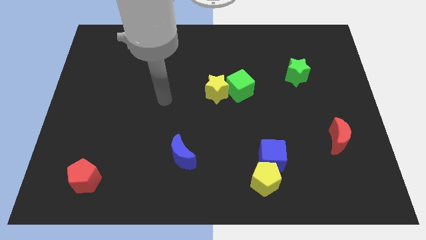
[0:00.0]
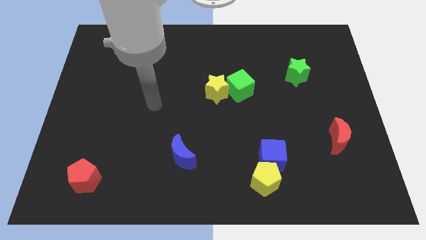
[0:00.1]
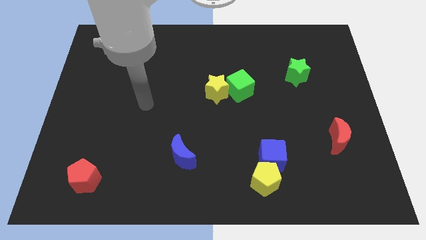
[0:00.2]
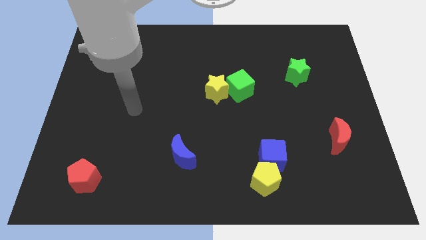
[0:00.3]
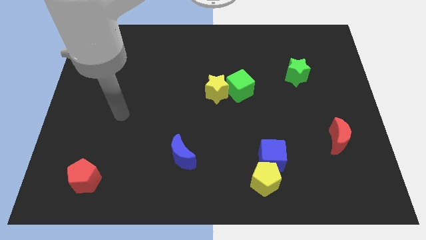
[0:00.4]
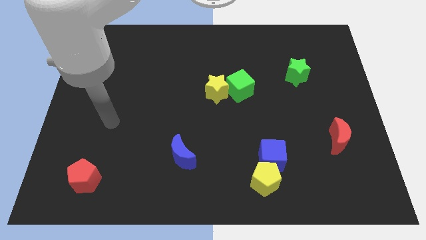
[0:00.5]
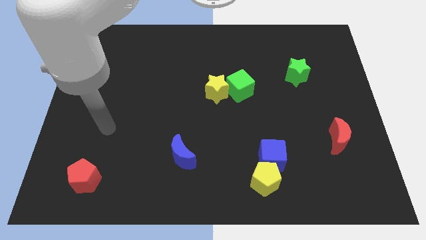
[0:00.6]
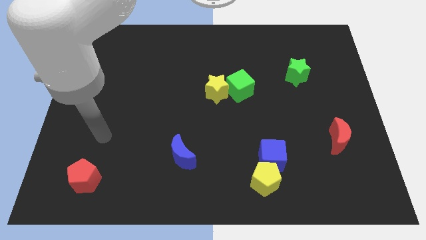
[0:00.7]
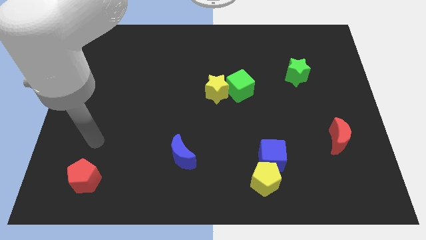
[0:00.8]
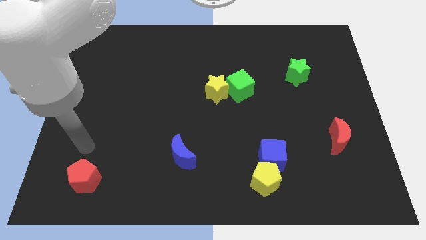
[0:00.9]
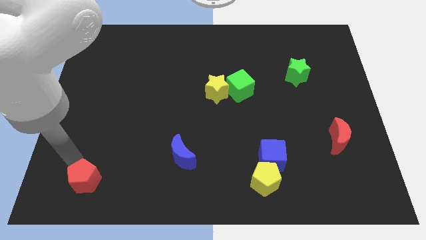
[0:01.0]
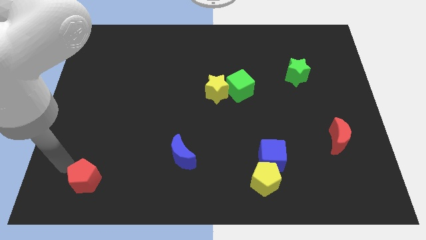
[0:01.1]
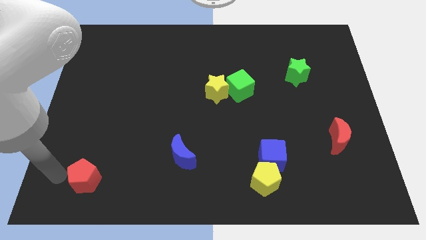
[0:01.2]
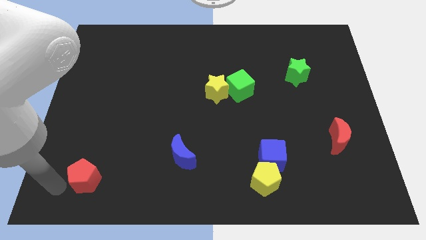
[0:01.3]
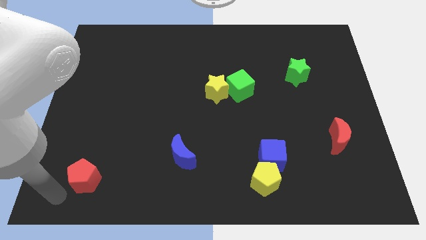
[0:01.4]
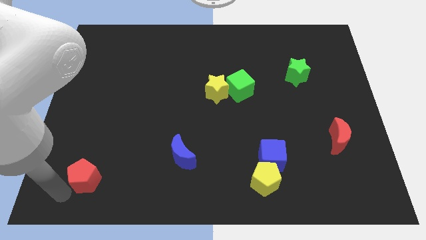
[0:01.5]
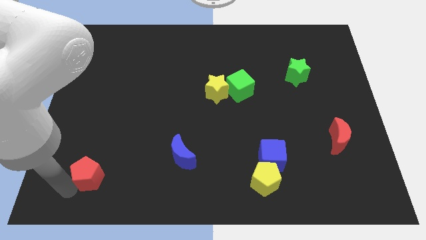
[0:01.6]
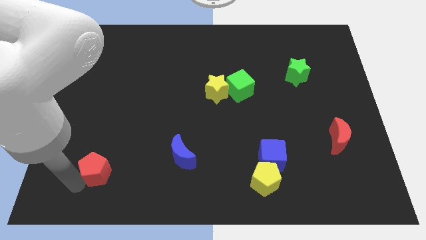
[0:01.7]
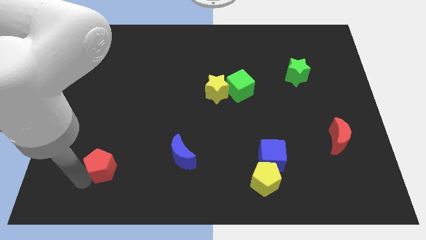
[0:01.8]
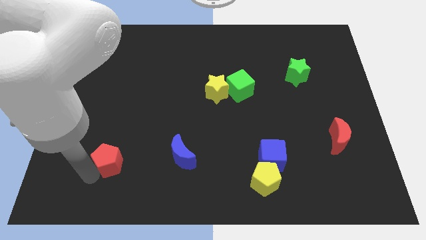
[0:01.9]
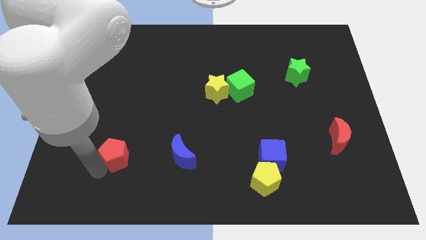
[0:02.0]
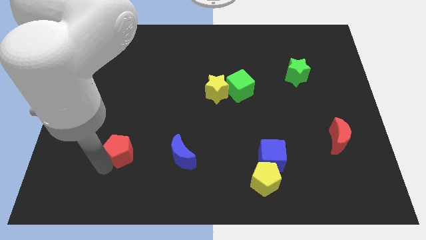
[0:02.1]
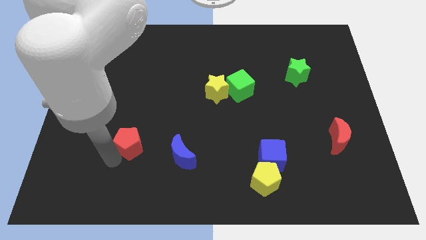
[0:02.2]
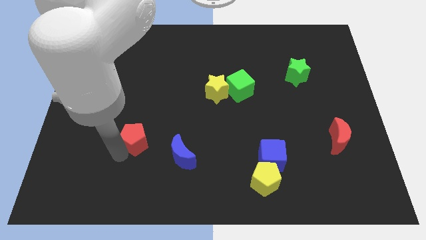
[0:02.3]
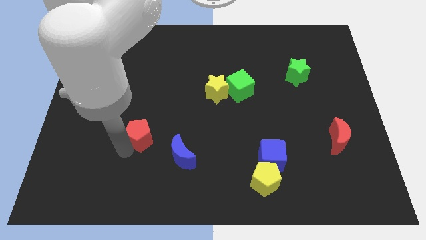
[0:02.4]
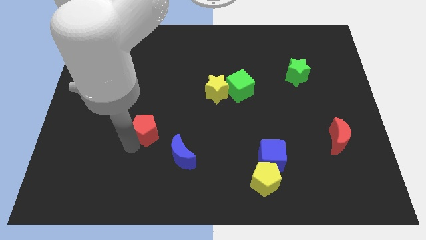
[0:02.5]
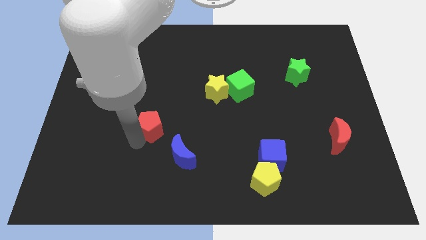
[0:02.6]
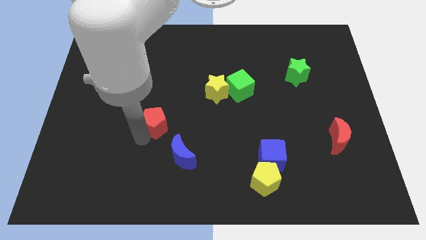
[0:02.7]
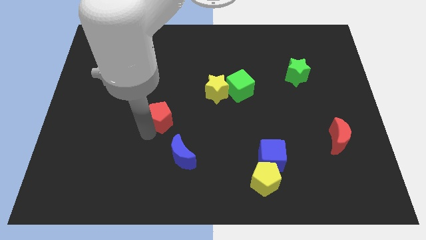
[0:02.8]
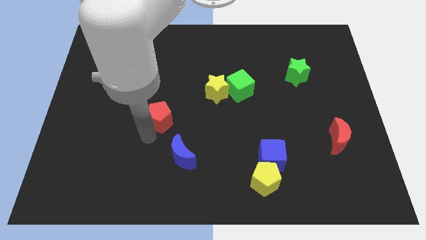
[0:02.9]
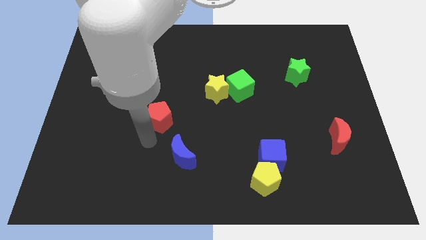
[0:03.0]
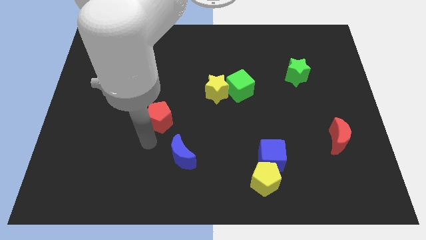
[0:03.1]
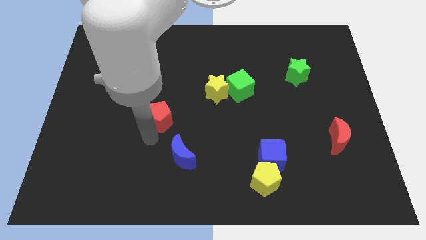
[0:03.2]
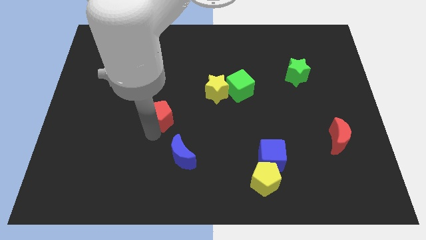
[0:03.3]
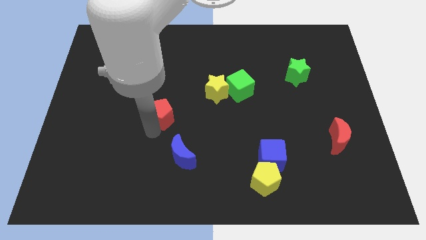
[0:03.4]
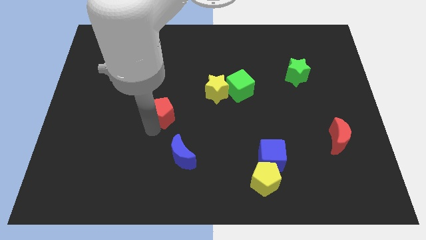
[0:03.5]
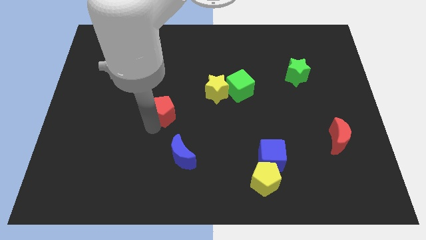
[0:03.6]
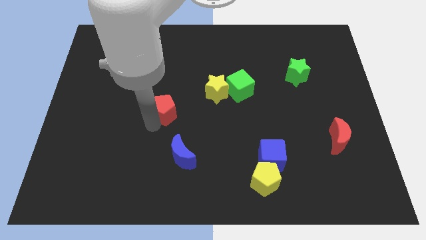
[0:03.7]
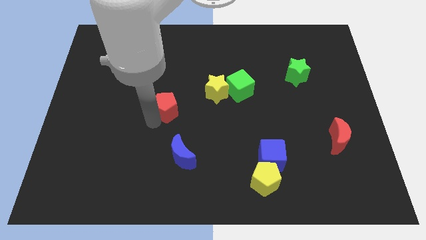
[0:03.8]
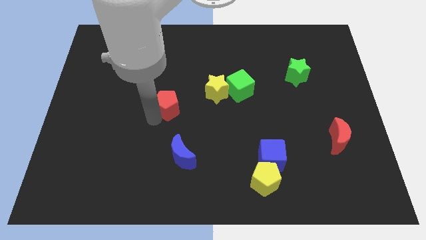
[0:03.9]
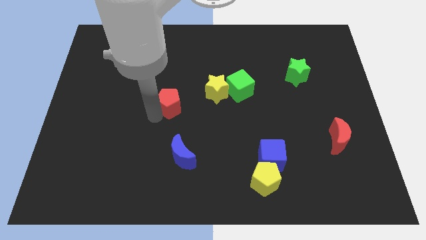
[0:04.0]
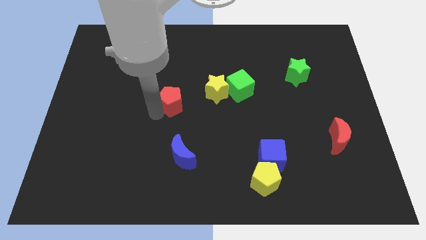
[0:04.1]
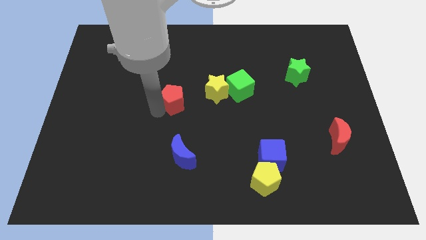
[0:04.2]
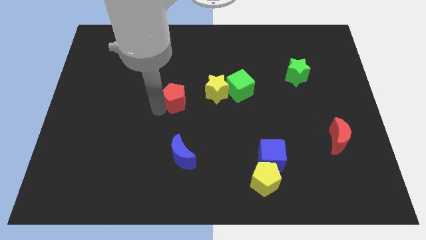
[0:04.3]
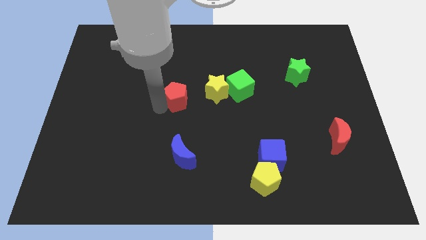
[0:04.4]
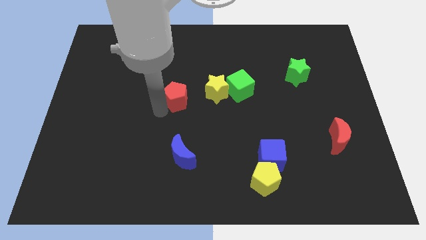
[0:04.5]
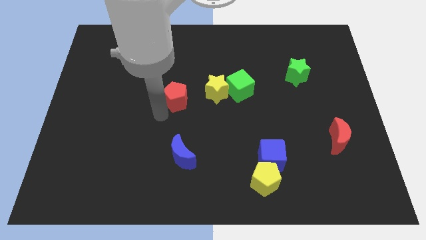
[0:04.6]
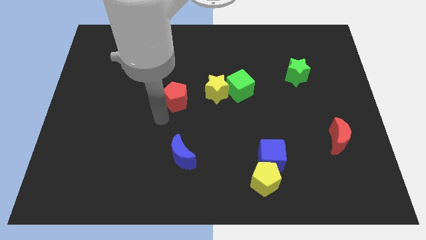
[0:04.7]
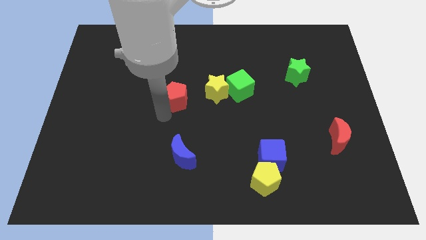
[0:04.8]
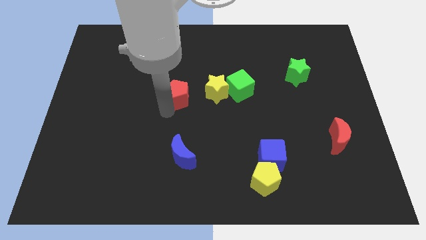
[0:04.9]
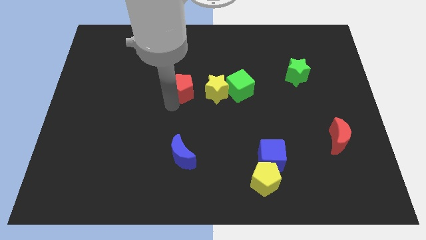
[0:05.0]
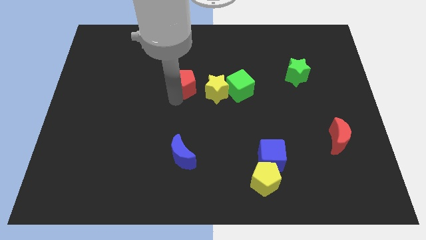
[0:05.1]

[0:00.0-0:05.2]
move the red pentagon to the top left side of the yellow star

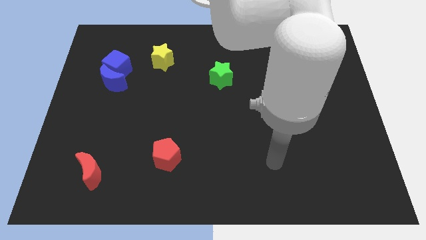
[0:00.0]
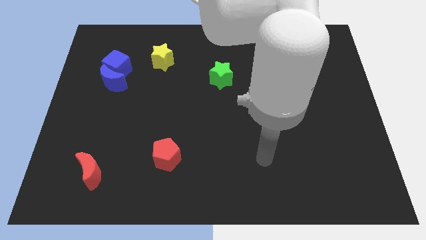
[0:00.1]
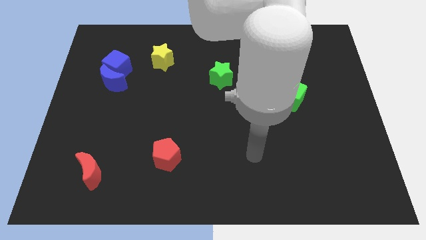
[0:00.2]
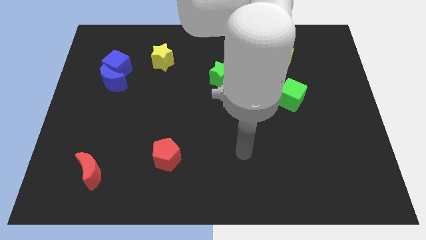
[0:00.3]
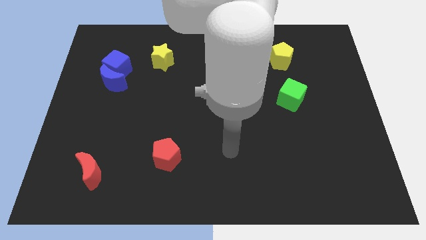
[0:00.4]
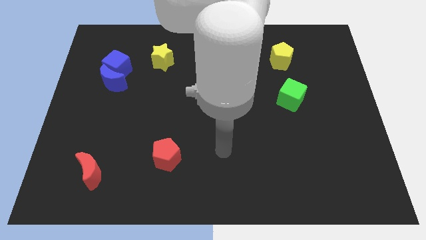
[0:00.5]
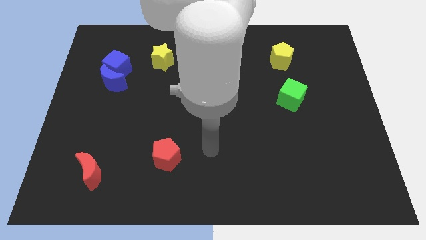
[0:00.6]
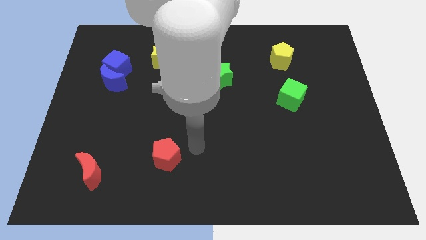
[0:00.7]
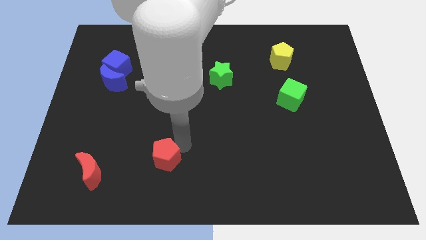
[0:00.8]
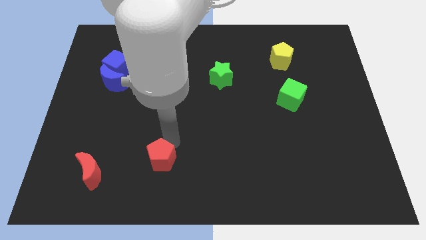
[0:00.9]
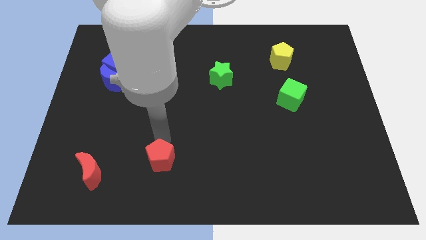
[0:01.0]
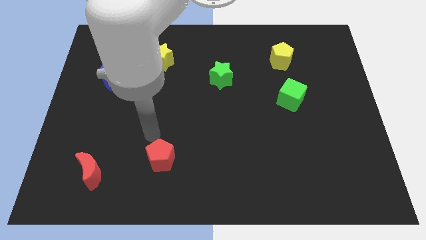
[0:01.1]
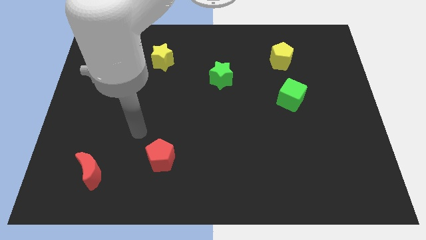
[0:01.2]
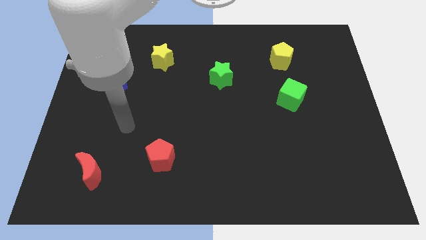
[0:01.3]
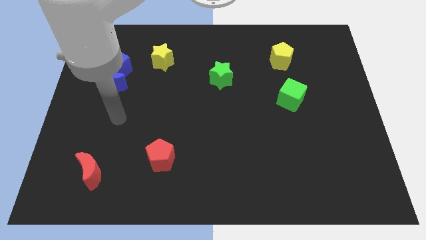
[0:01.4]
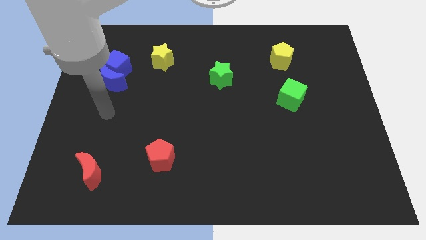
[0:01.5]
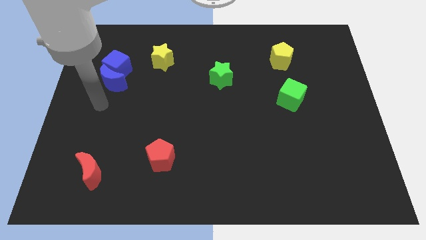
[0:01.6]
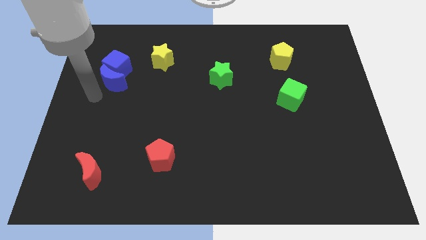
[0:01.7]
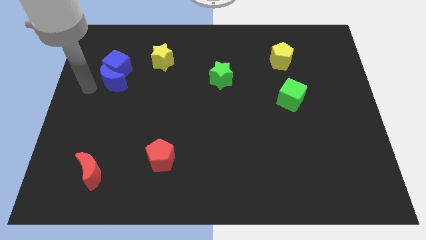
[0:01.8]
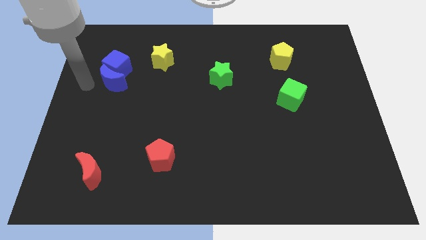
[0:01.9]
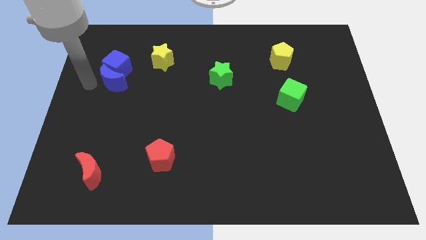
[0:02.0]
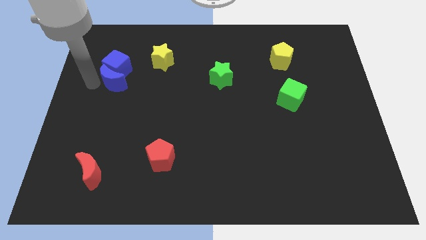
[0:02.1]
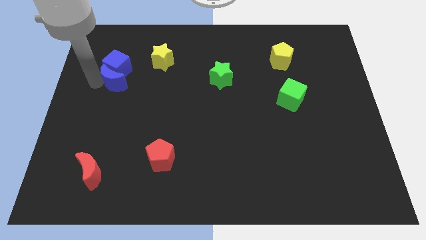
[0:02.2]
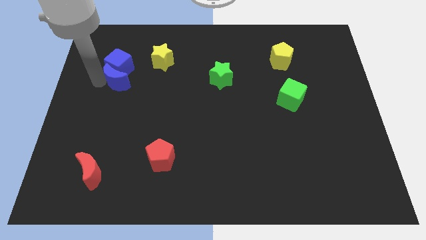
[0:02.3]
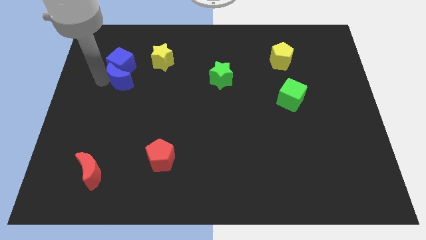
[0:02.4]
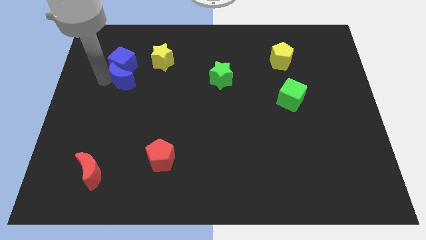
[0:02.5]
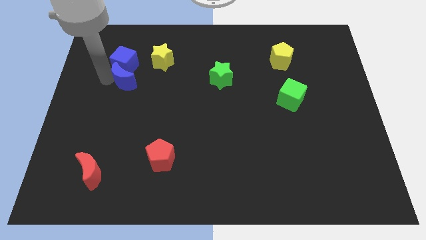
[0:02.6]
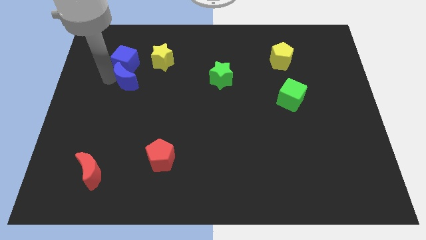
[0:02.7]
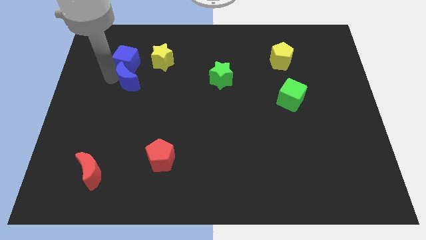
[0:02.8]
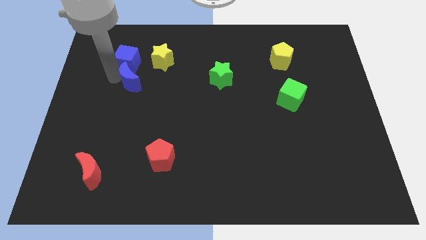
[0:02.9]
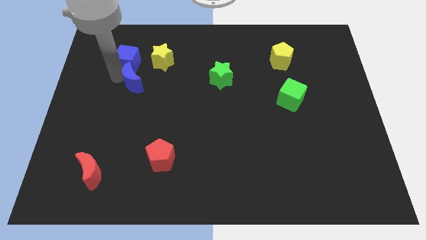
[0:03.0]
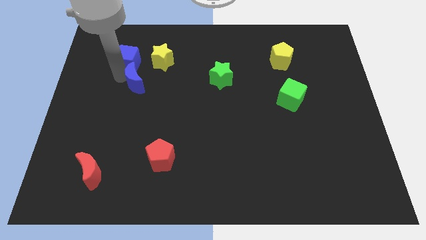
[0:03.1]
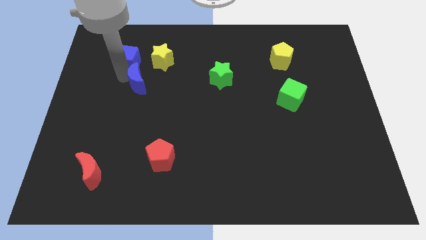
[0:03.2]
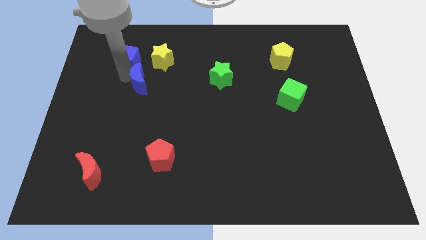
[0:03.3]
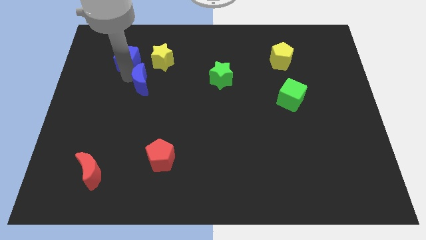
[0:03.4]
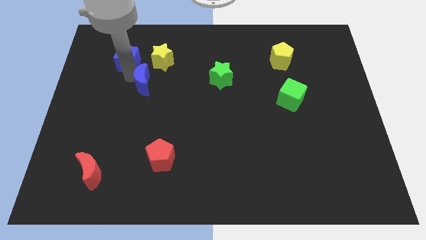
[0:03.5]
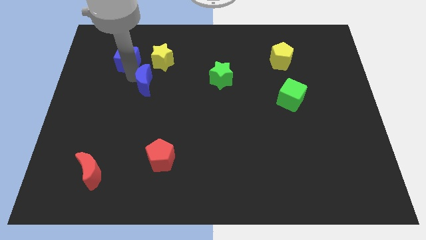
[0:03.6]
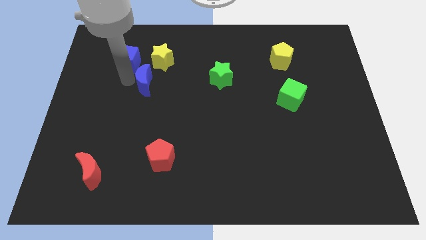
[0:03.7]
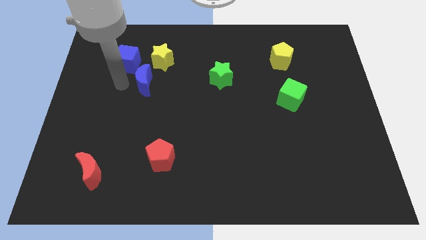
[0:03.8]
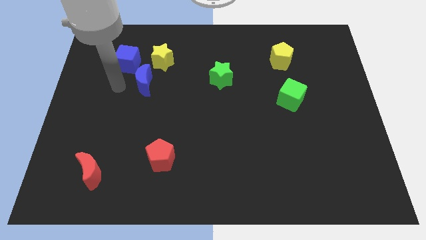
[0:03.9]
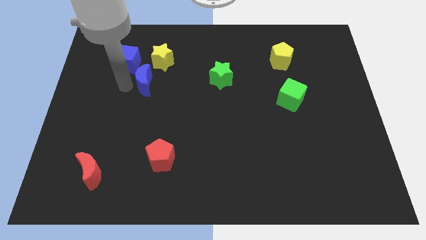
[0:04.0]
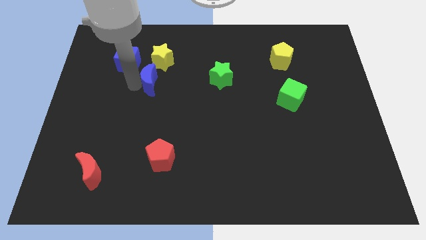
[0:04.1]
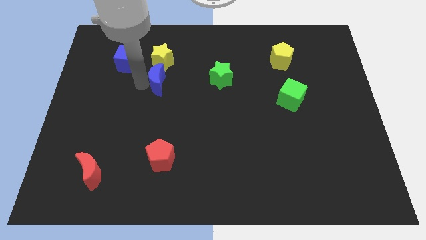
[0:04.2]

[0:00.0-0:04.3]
put the blue moon to the left of the green star
